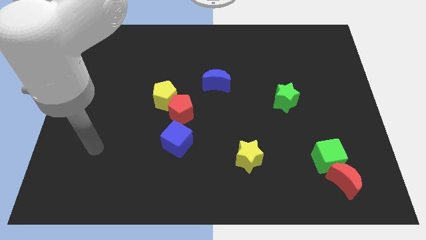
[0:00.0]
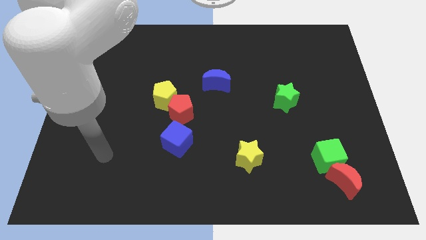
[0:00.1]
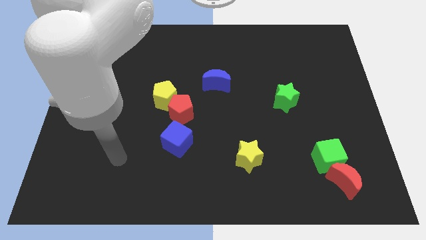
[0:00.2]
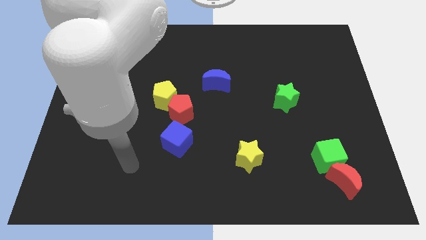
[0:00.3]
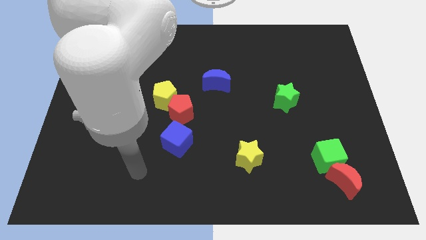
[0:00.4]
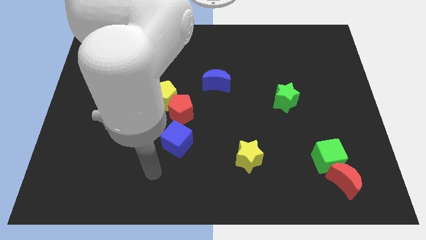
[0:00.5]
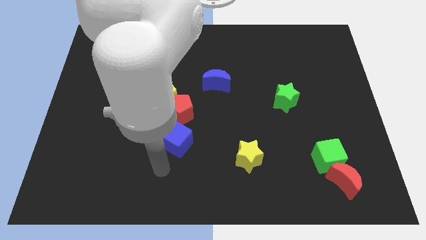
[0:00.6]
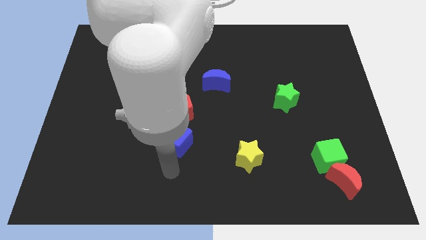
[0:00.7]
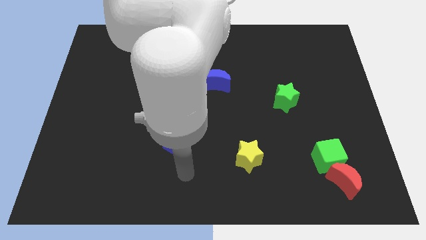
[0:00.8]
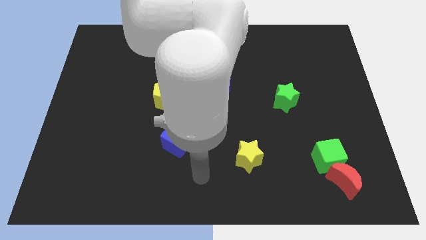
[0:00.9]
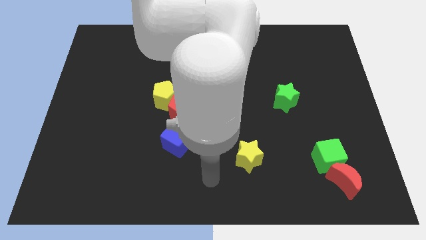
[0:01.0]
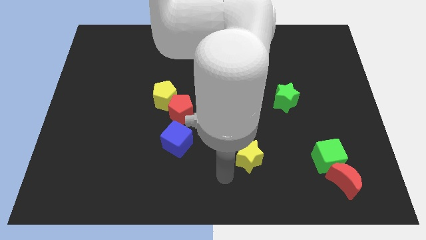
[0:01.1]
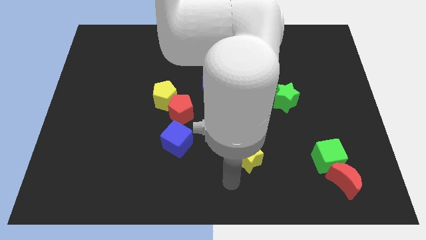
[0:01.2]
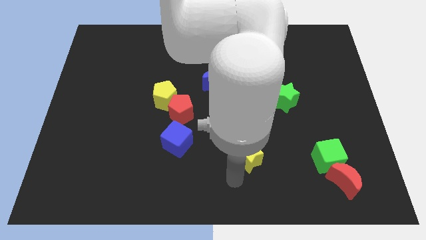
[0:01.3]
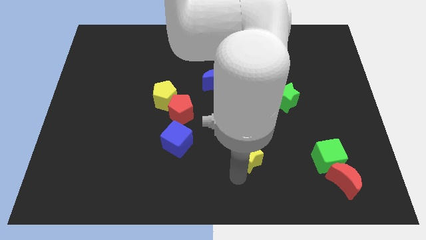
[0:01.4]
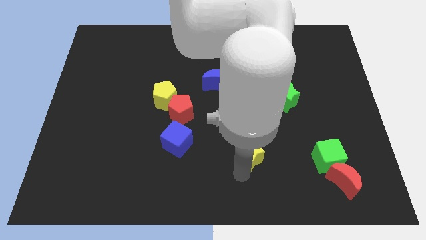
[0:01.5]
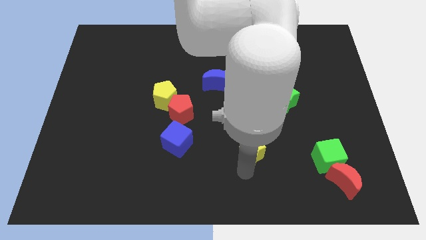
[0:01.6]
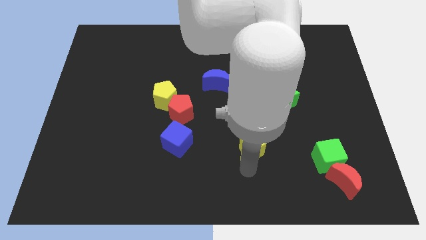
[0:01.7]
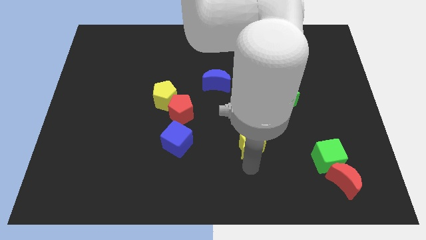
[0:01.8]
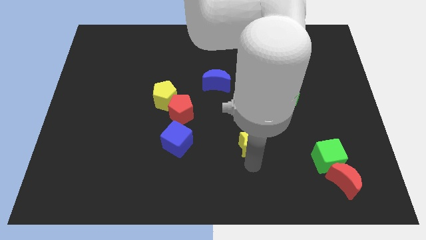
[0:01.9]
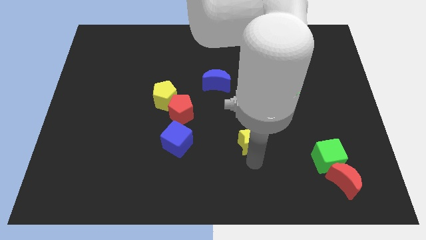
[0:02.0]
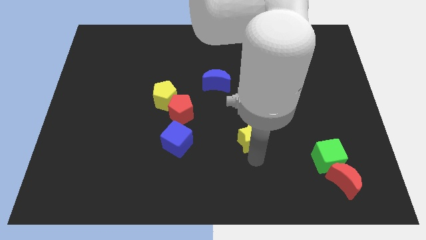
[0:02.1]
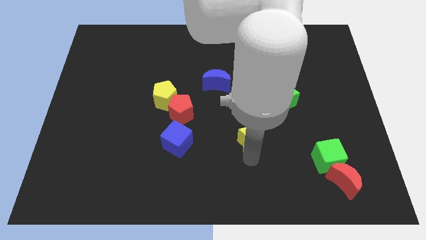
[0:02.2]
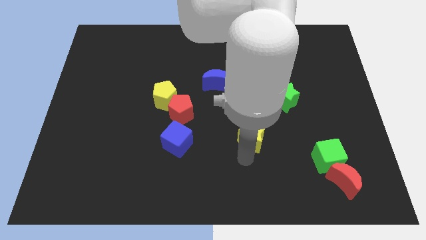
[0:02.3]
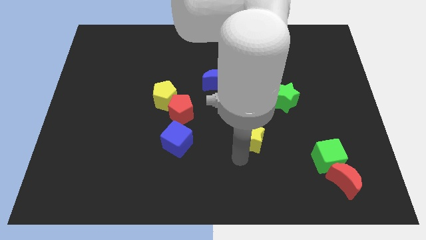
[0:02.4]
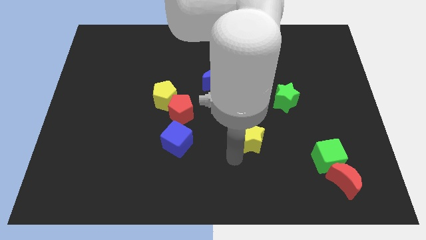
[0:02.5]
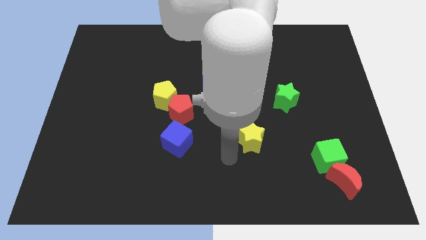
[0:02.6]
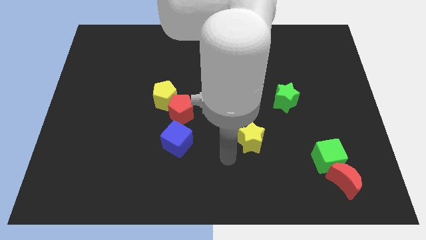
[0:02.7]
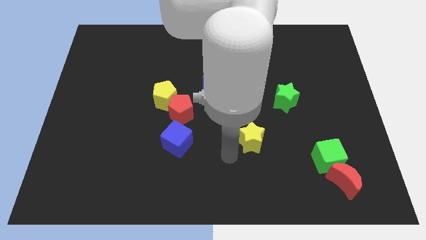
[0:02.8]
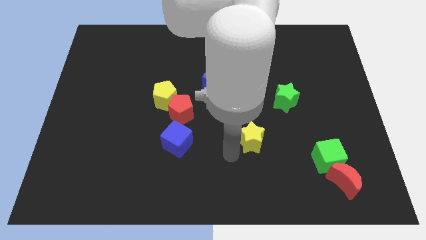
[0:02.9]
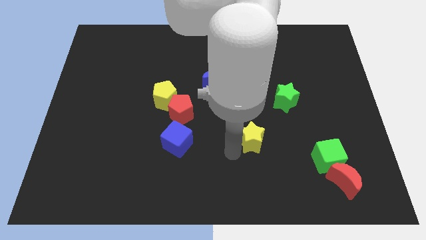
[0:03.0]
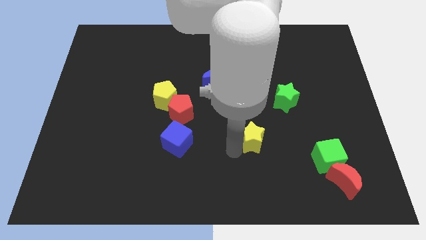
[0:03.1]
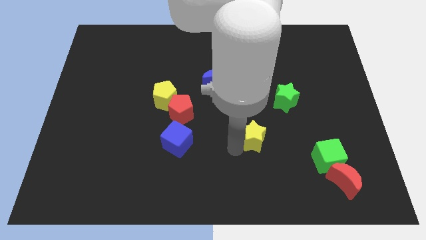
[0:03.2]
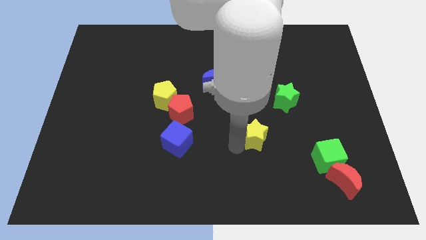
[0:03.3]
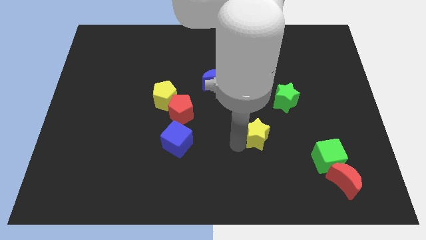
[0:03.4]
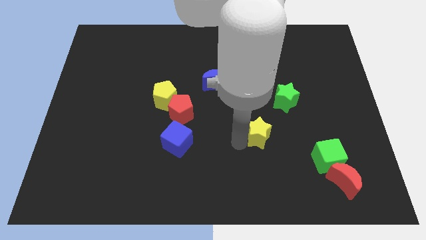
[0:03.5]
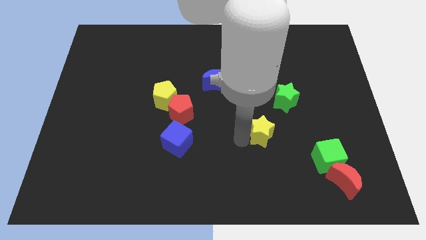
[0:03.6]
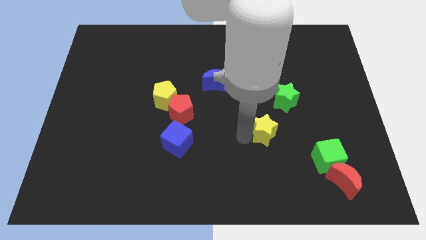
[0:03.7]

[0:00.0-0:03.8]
move the yellow star somewhat diagonally upwards and right

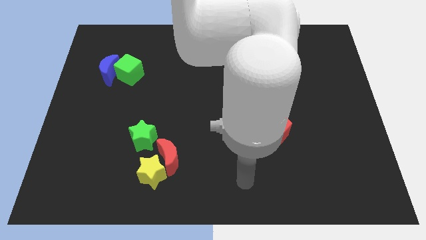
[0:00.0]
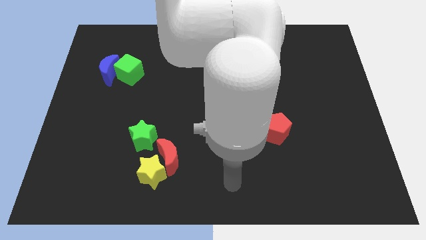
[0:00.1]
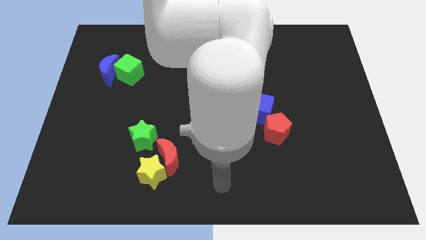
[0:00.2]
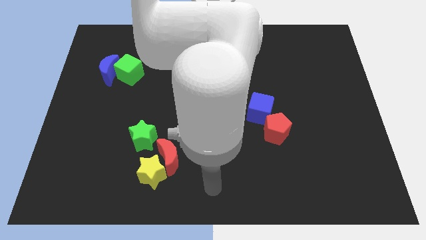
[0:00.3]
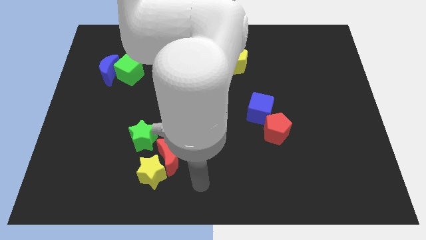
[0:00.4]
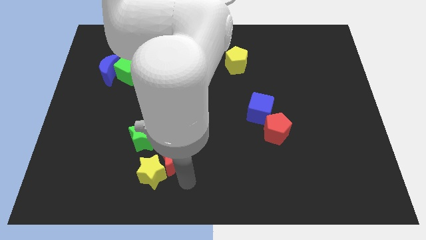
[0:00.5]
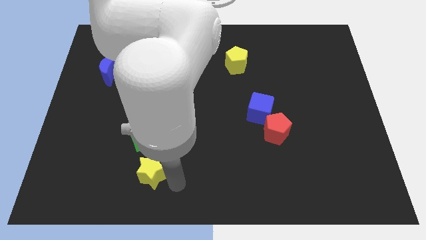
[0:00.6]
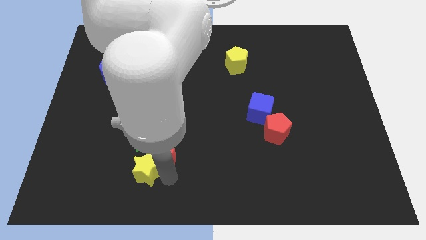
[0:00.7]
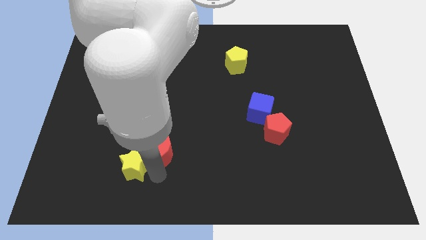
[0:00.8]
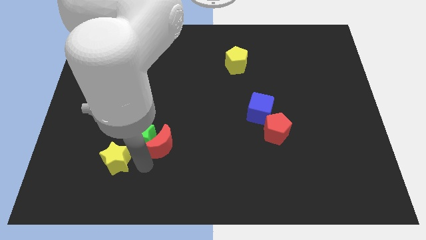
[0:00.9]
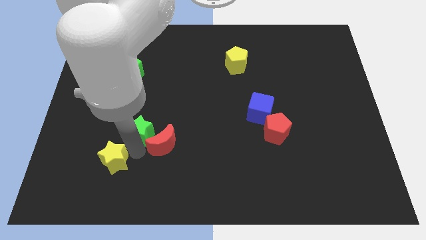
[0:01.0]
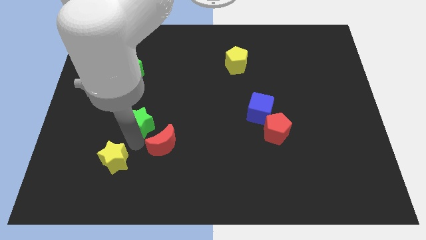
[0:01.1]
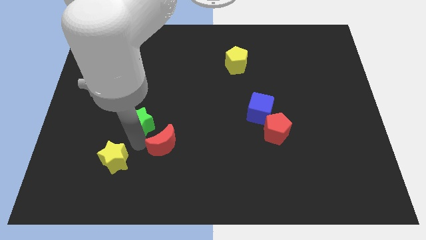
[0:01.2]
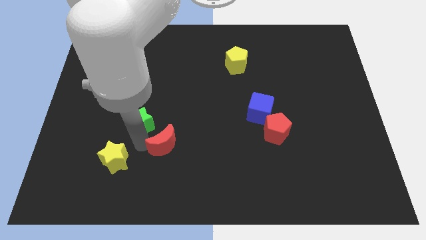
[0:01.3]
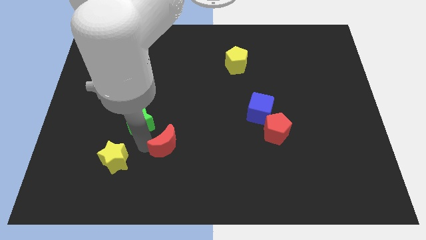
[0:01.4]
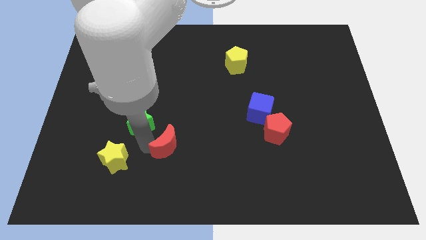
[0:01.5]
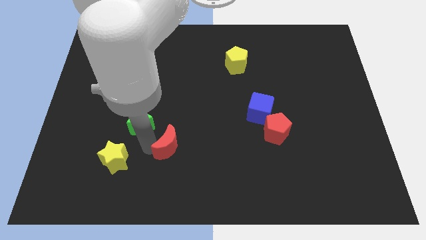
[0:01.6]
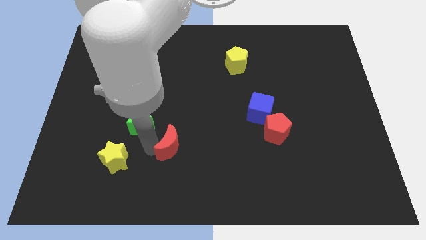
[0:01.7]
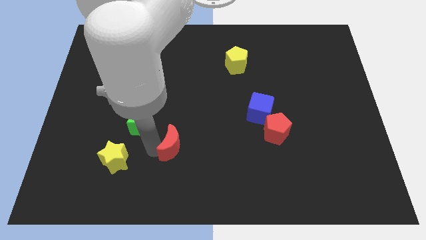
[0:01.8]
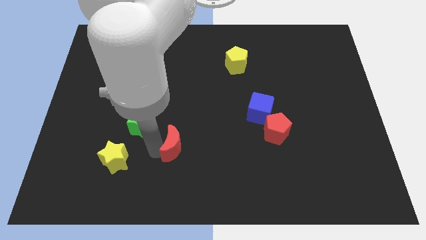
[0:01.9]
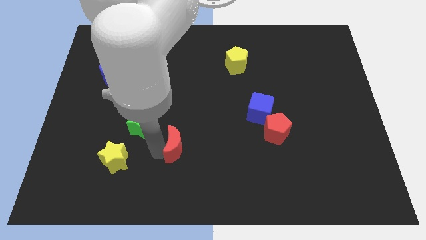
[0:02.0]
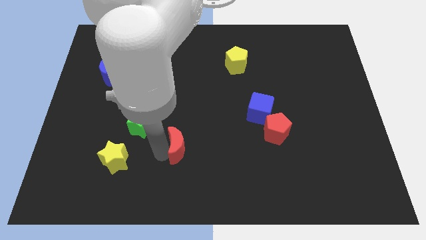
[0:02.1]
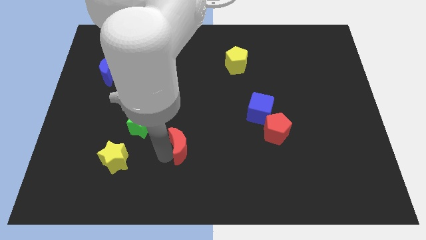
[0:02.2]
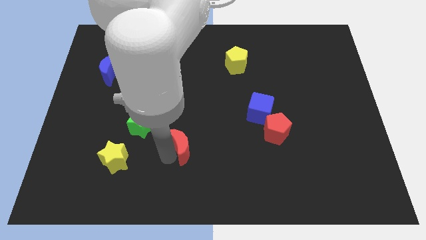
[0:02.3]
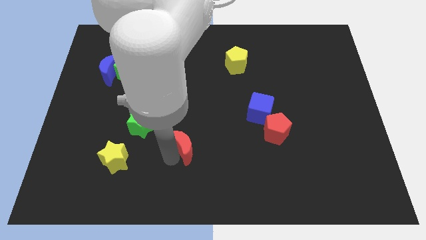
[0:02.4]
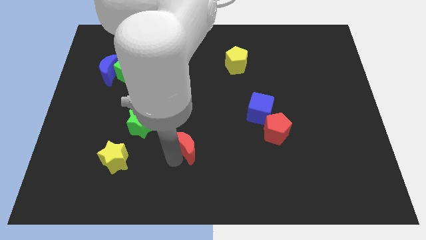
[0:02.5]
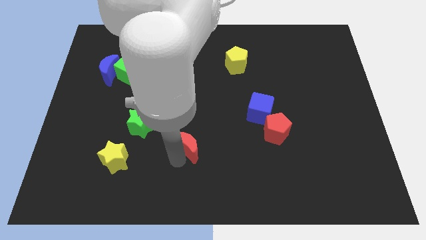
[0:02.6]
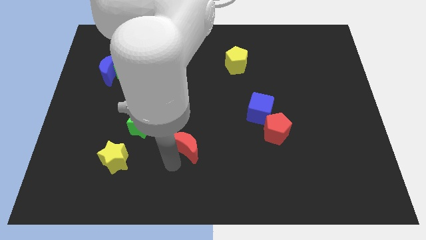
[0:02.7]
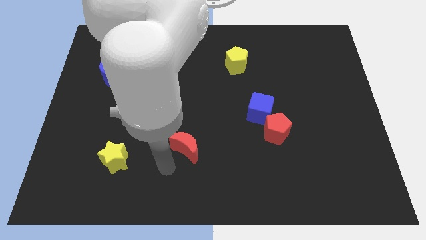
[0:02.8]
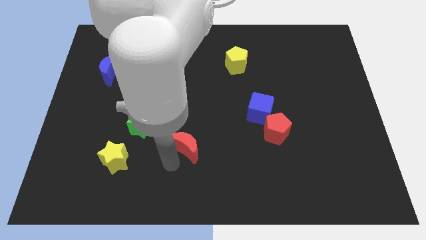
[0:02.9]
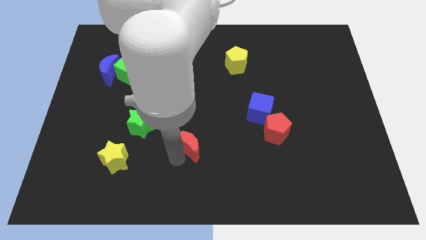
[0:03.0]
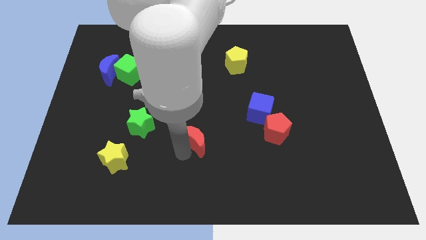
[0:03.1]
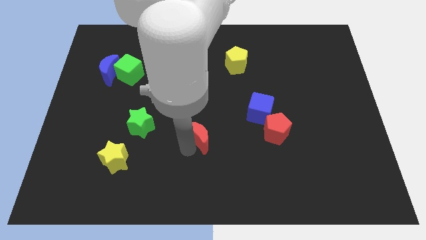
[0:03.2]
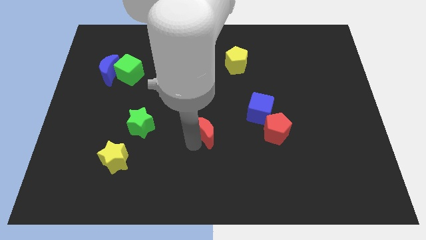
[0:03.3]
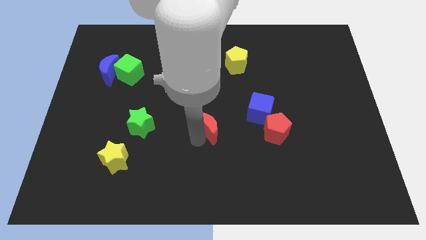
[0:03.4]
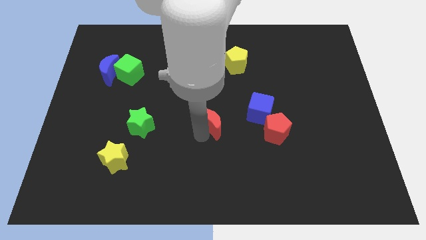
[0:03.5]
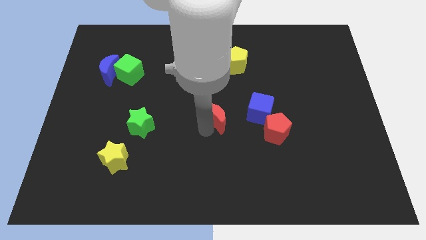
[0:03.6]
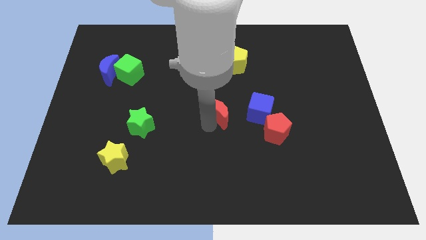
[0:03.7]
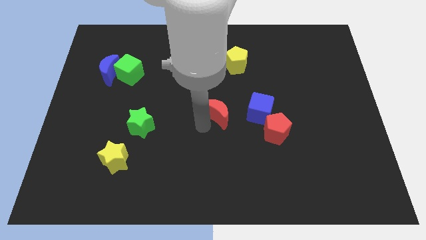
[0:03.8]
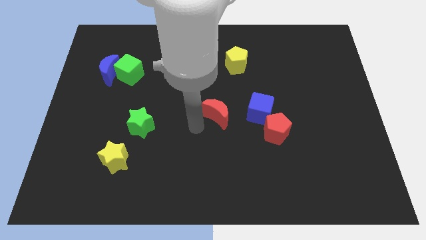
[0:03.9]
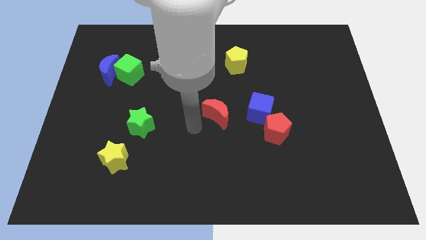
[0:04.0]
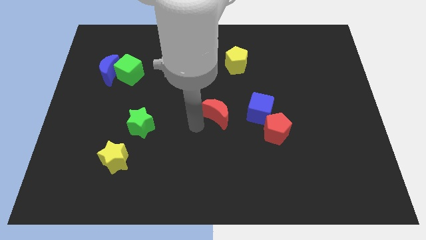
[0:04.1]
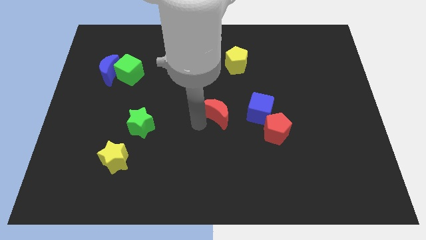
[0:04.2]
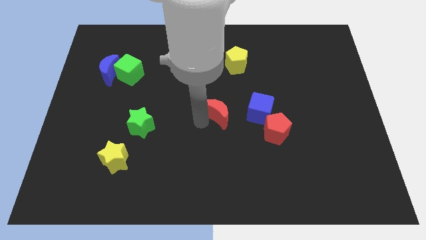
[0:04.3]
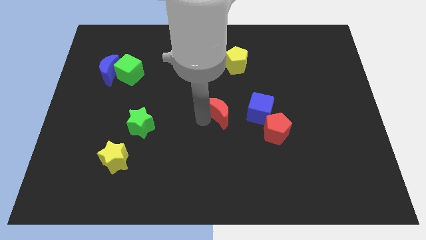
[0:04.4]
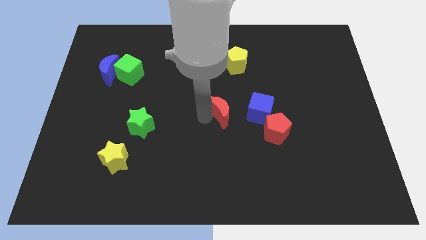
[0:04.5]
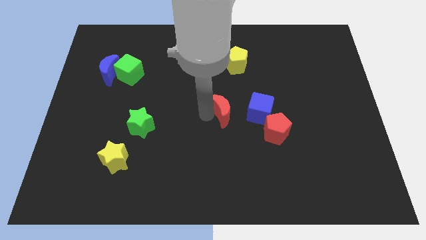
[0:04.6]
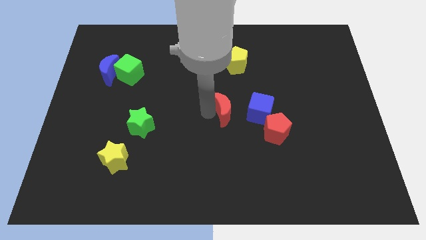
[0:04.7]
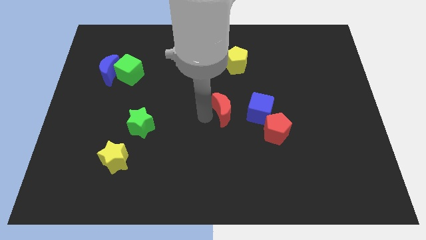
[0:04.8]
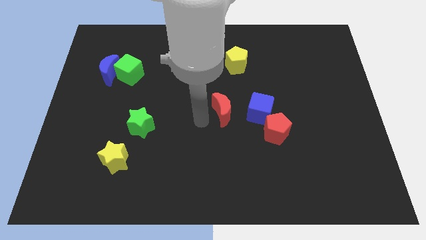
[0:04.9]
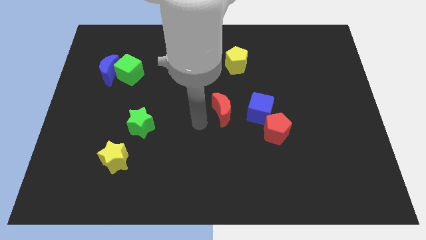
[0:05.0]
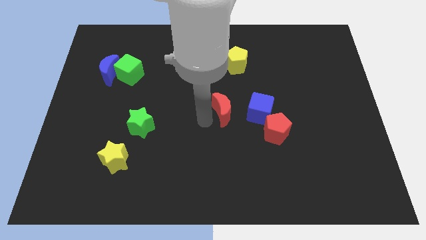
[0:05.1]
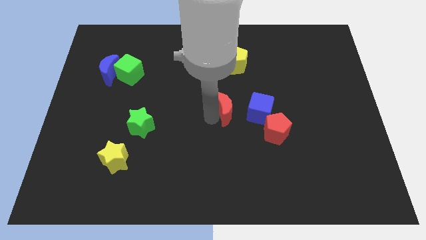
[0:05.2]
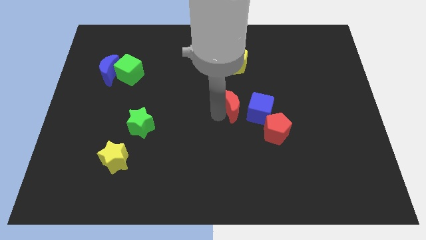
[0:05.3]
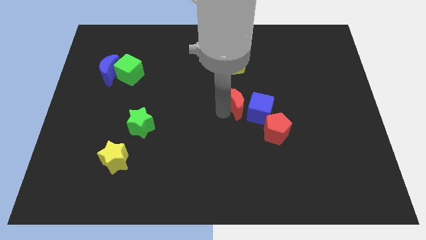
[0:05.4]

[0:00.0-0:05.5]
move the red moon upwards and right
